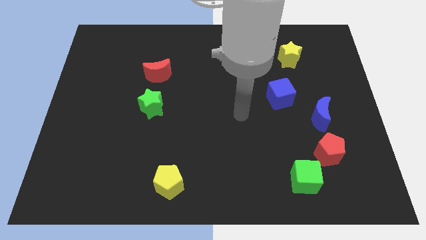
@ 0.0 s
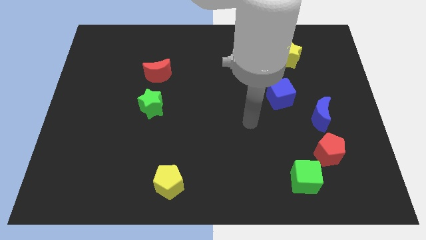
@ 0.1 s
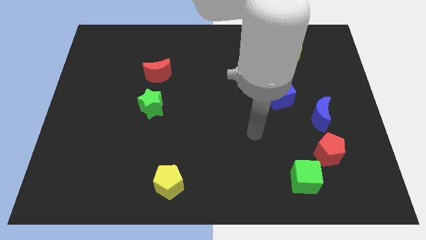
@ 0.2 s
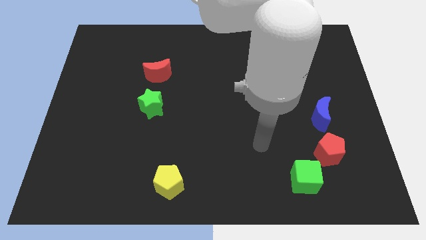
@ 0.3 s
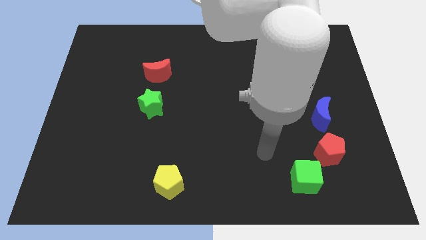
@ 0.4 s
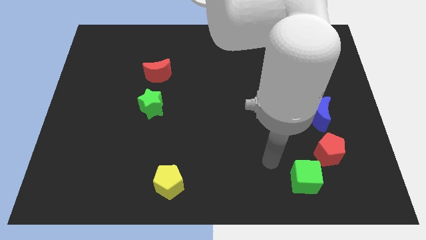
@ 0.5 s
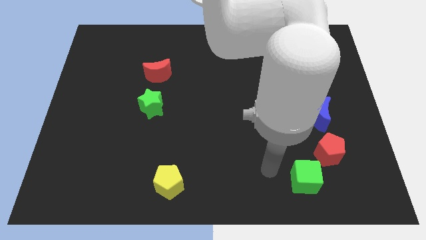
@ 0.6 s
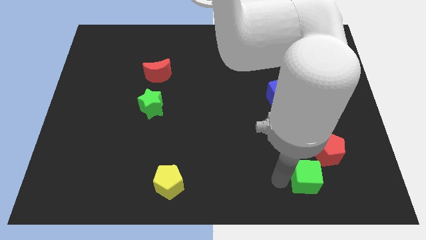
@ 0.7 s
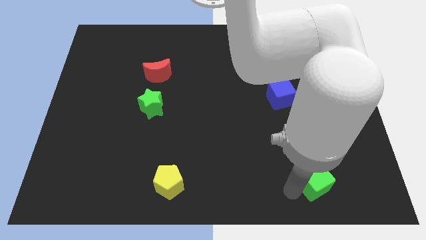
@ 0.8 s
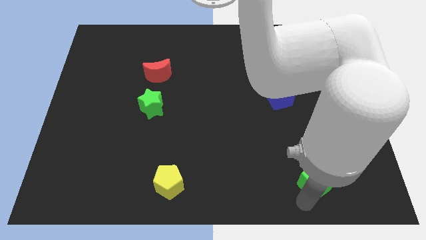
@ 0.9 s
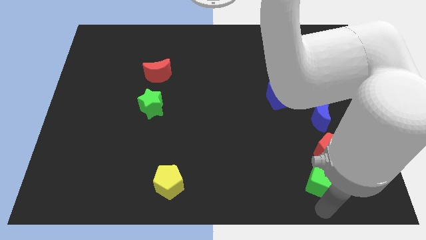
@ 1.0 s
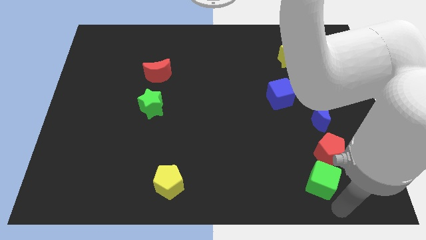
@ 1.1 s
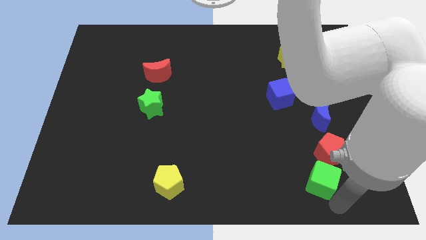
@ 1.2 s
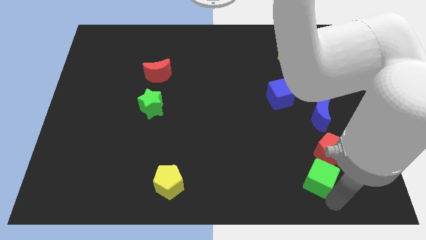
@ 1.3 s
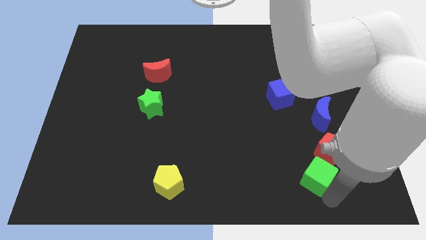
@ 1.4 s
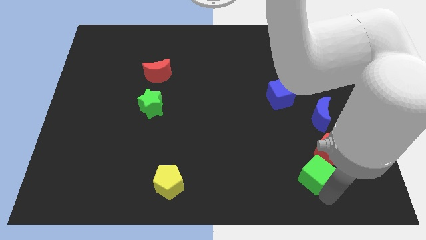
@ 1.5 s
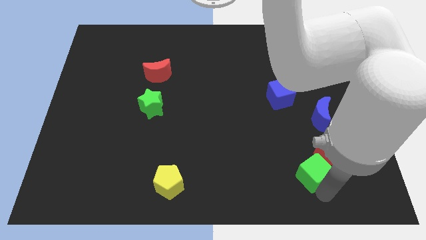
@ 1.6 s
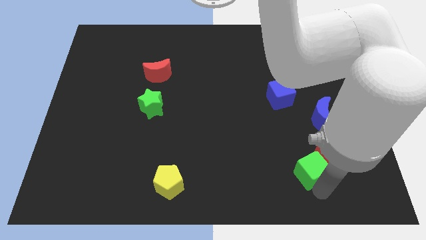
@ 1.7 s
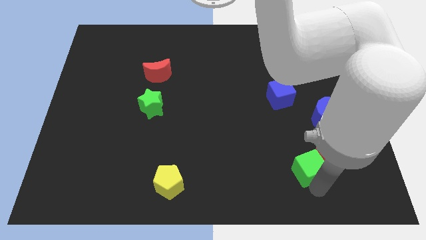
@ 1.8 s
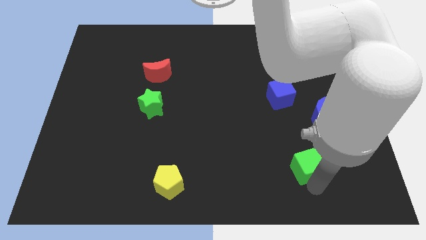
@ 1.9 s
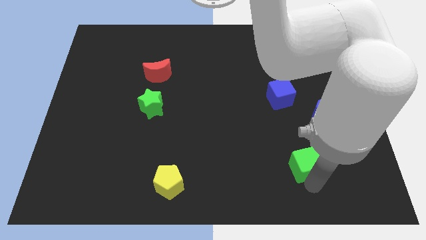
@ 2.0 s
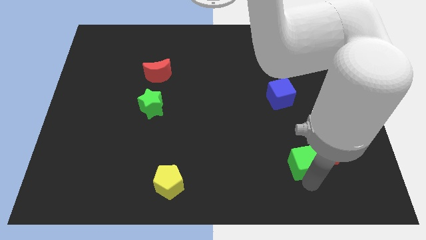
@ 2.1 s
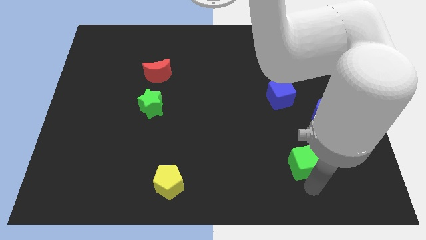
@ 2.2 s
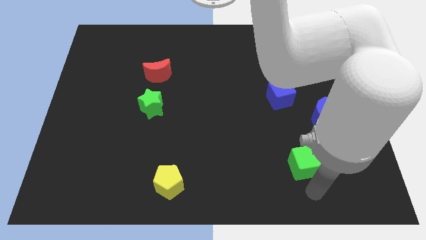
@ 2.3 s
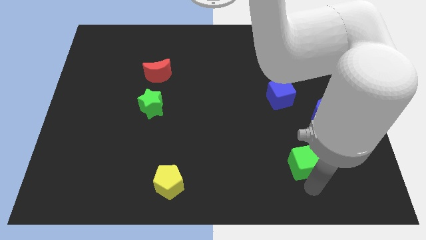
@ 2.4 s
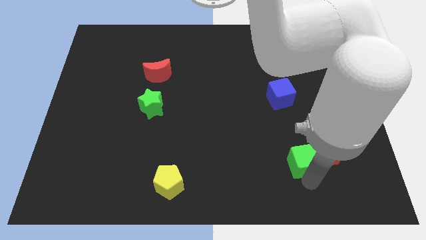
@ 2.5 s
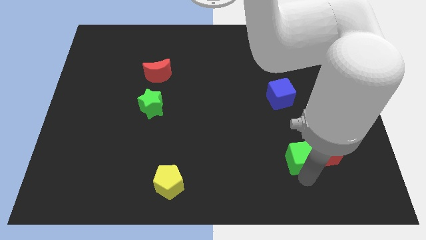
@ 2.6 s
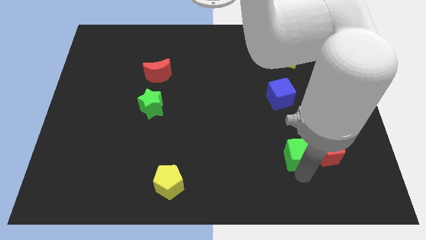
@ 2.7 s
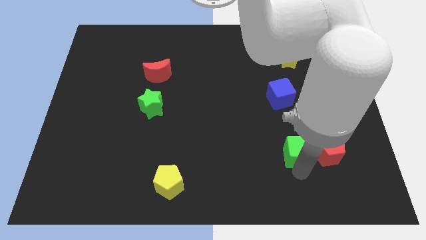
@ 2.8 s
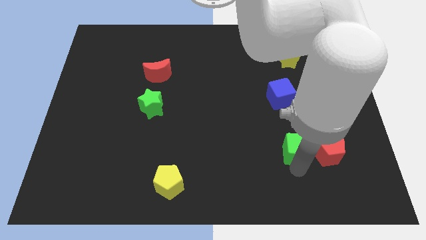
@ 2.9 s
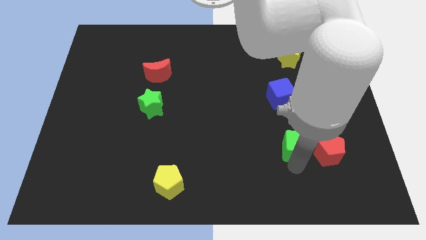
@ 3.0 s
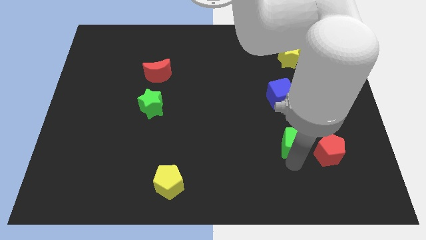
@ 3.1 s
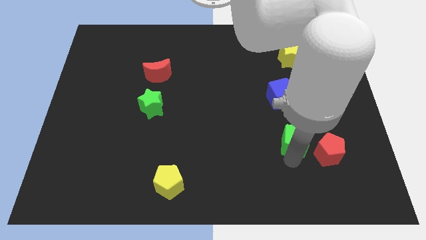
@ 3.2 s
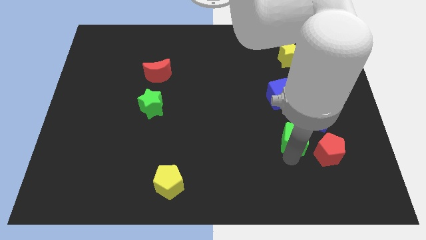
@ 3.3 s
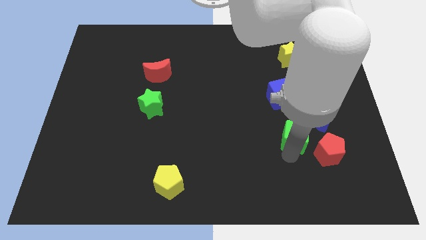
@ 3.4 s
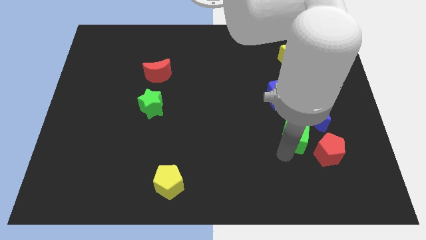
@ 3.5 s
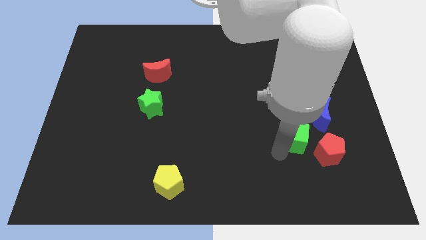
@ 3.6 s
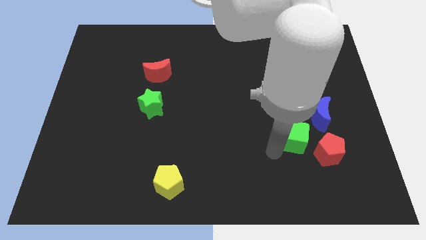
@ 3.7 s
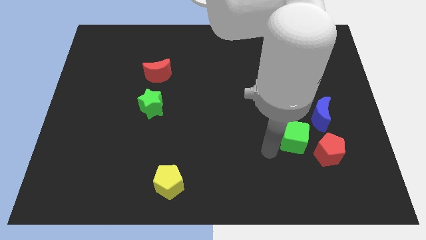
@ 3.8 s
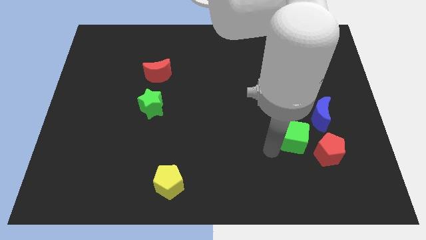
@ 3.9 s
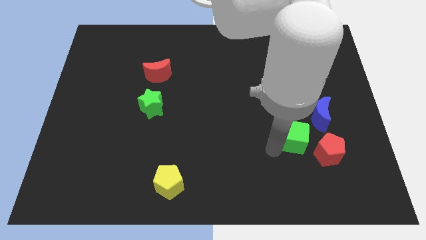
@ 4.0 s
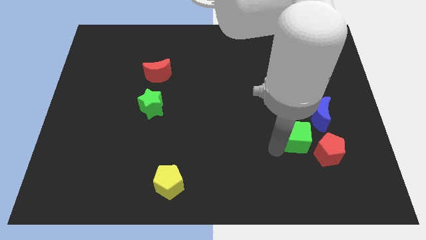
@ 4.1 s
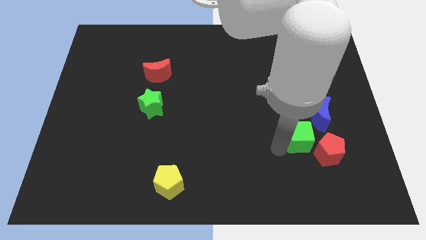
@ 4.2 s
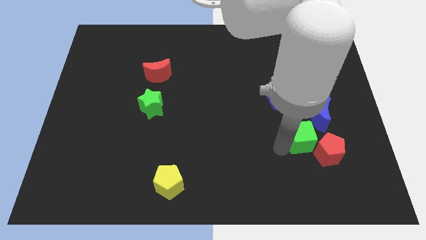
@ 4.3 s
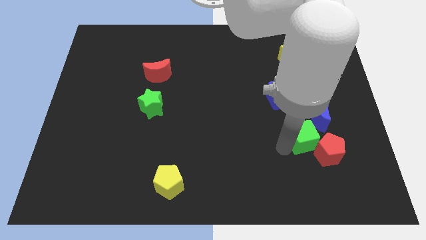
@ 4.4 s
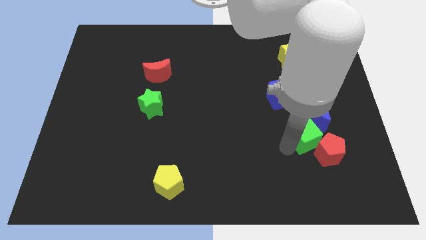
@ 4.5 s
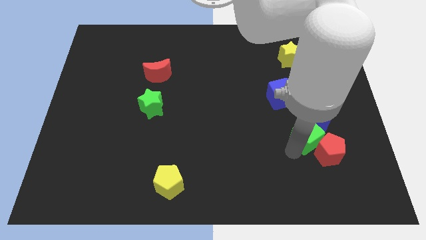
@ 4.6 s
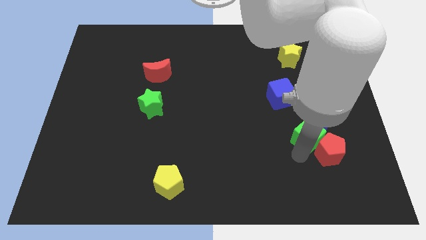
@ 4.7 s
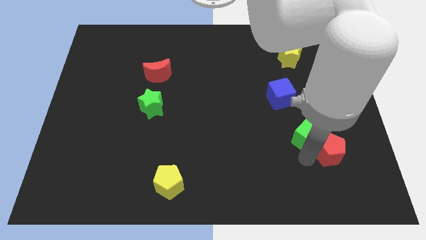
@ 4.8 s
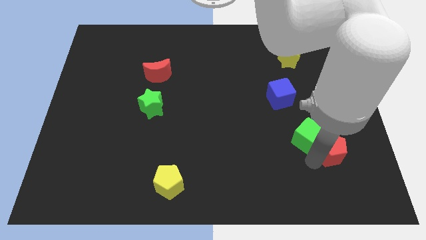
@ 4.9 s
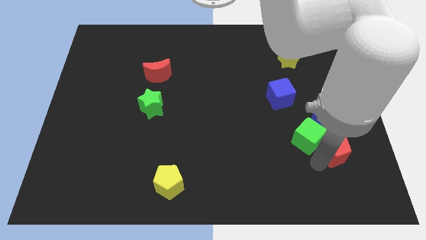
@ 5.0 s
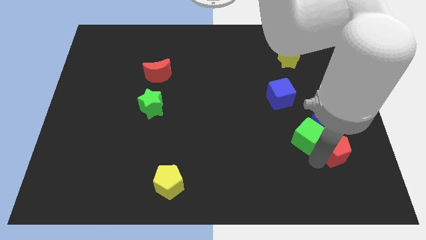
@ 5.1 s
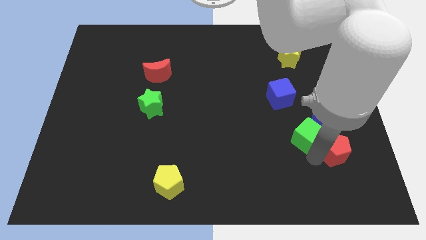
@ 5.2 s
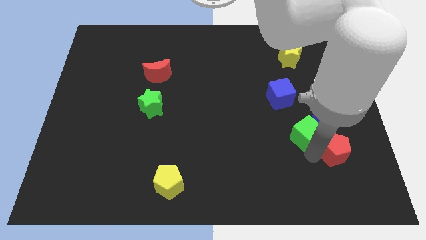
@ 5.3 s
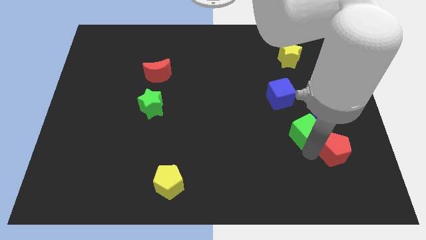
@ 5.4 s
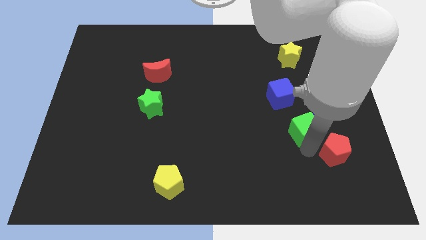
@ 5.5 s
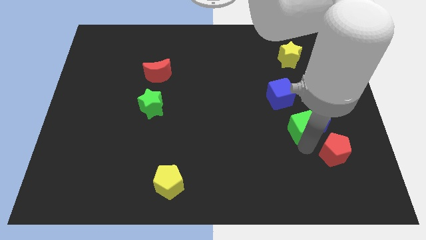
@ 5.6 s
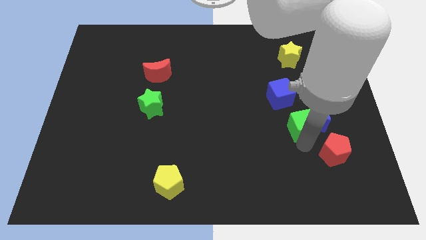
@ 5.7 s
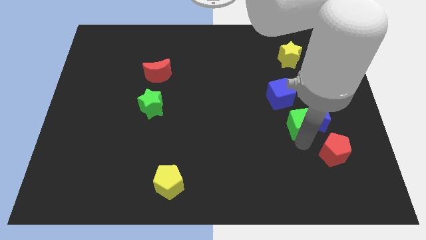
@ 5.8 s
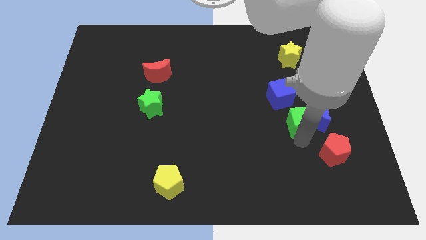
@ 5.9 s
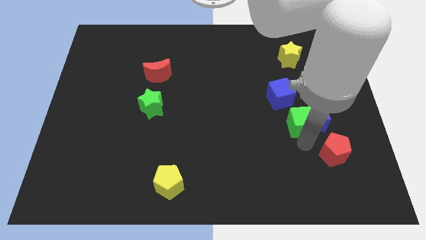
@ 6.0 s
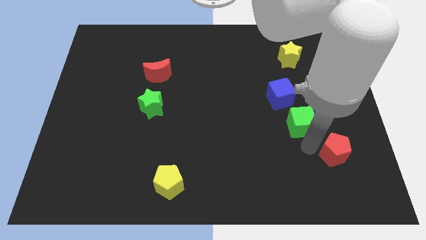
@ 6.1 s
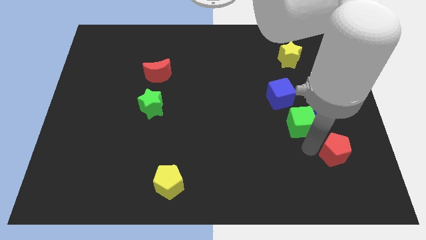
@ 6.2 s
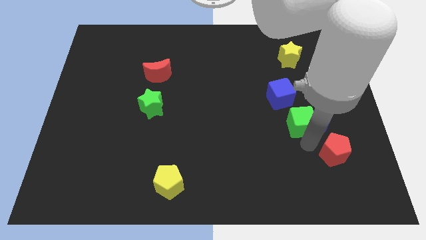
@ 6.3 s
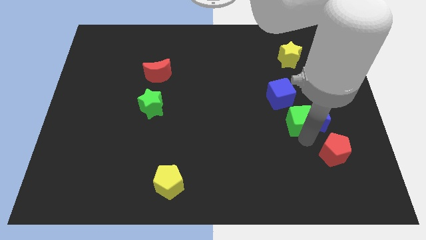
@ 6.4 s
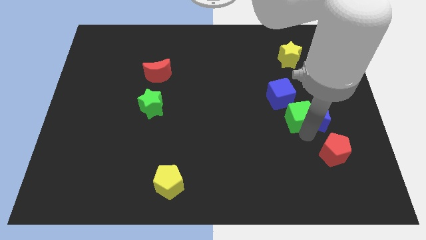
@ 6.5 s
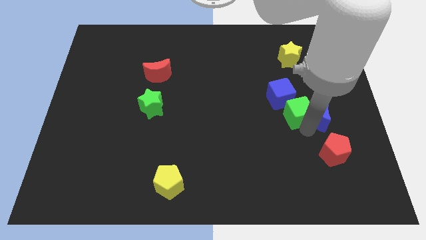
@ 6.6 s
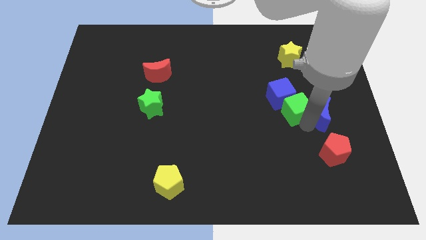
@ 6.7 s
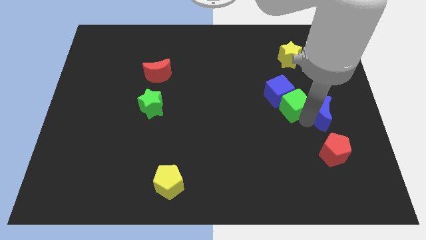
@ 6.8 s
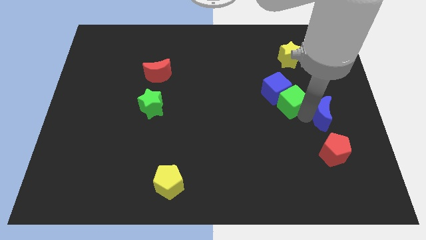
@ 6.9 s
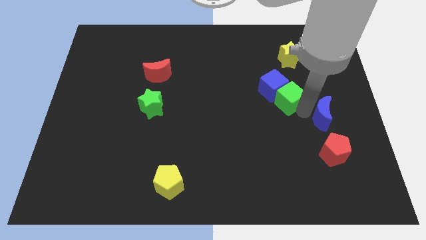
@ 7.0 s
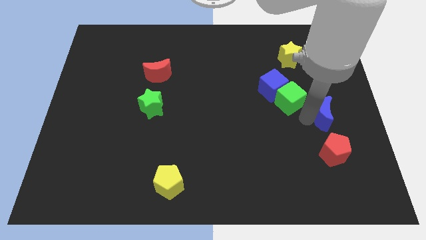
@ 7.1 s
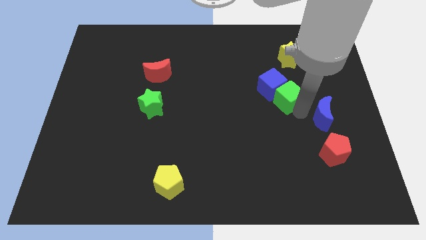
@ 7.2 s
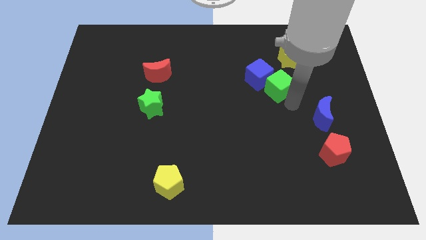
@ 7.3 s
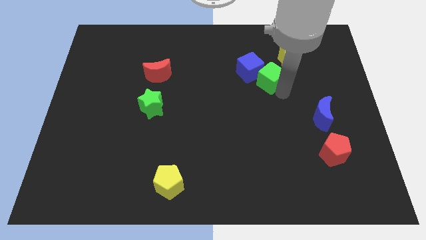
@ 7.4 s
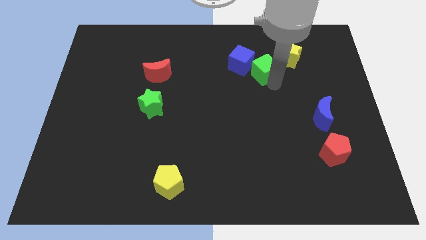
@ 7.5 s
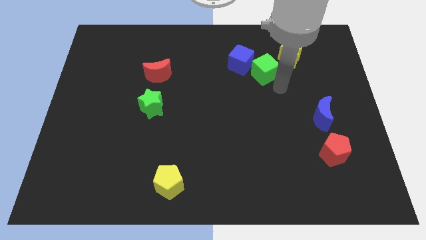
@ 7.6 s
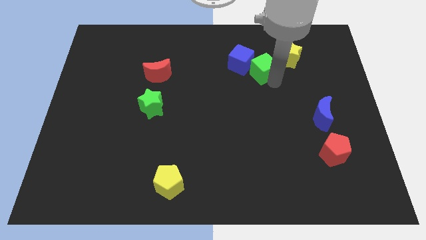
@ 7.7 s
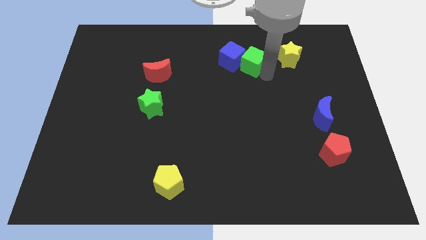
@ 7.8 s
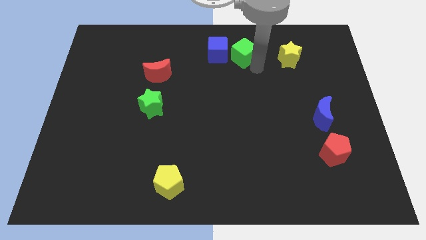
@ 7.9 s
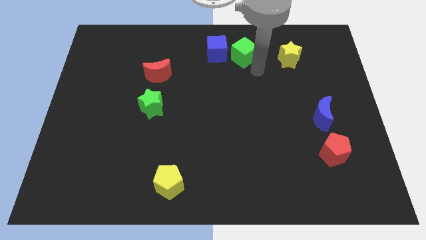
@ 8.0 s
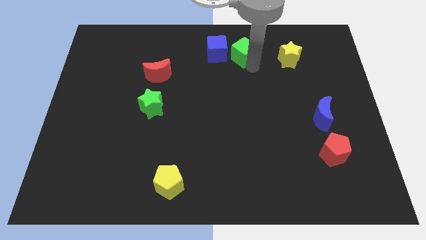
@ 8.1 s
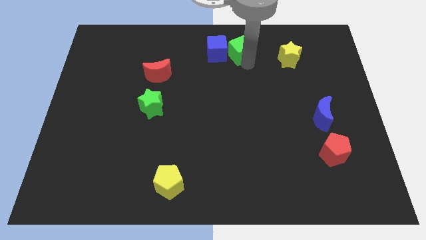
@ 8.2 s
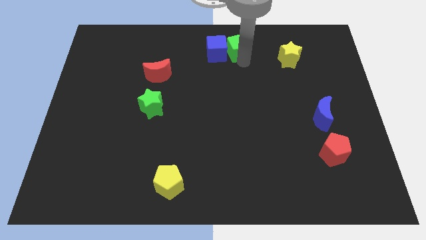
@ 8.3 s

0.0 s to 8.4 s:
slide the green cube to the top side
